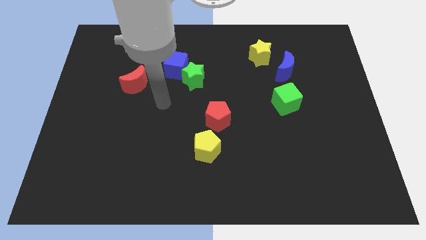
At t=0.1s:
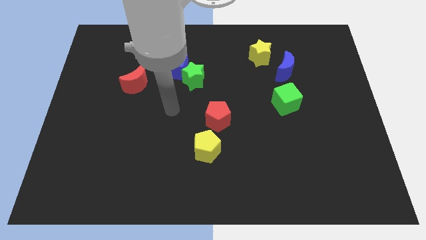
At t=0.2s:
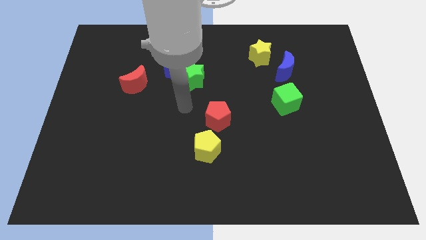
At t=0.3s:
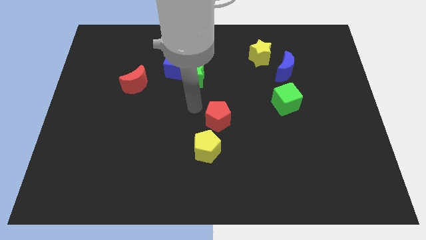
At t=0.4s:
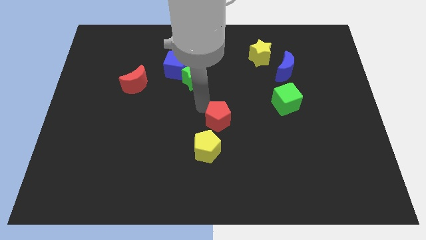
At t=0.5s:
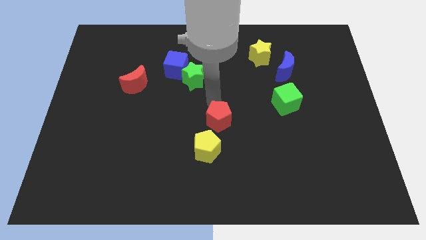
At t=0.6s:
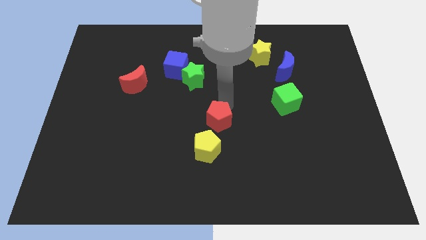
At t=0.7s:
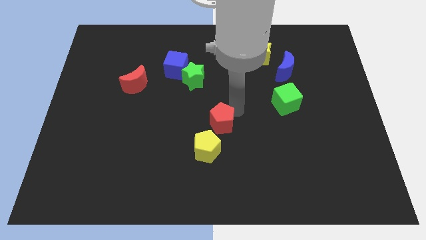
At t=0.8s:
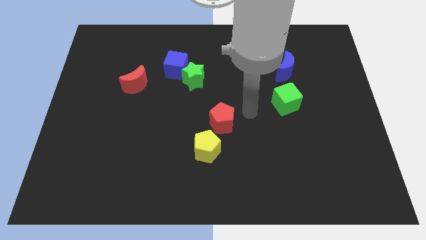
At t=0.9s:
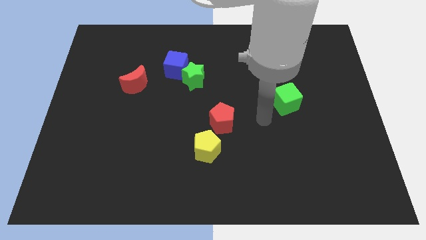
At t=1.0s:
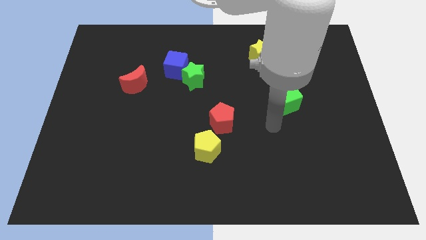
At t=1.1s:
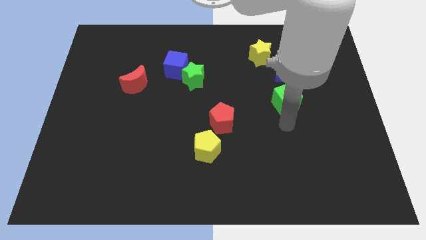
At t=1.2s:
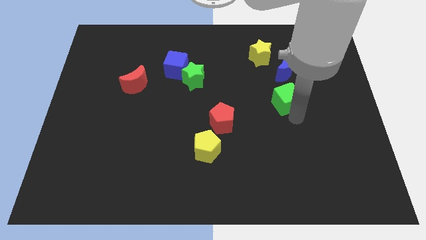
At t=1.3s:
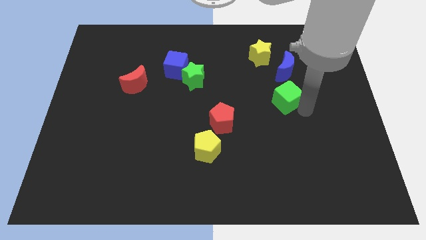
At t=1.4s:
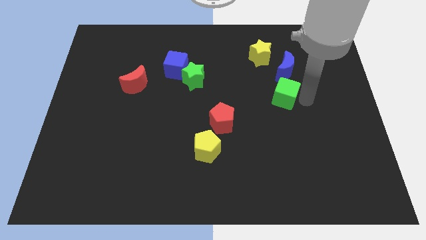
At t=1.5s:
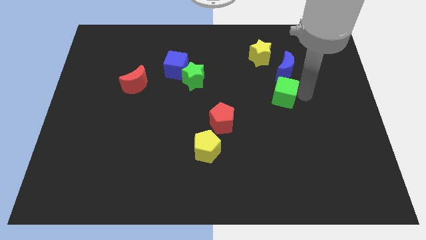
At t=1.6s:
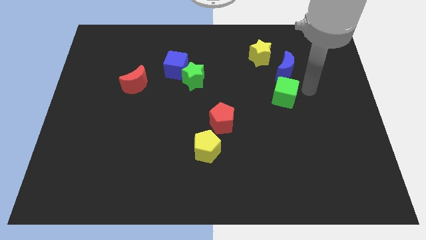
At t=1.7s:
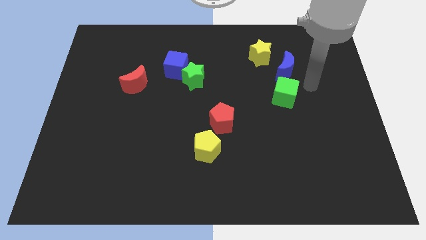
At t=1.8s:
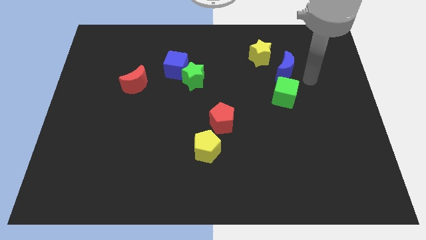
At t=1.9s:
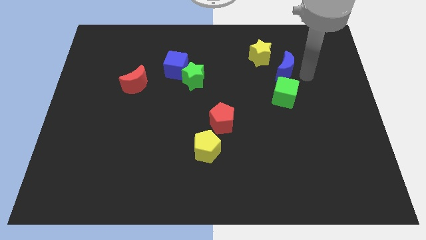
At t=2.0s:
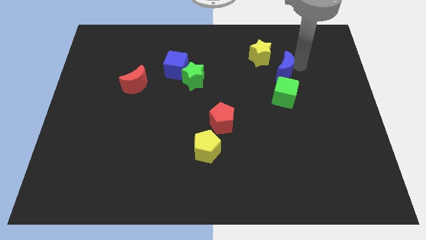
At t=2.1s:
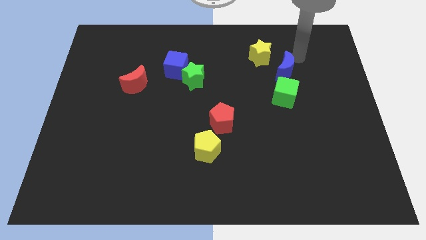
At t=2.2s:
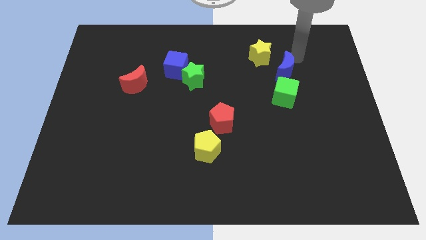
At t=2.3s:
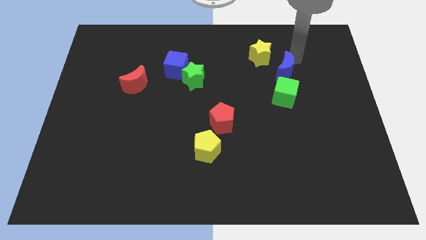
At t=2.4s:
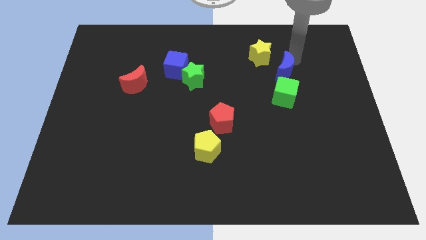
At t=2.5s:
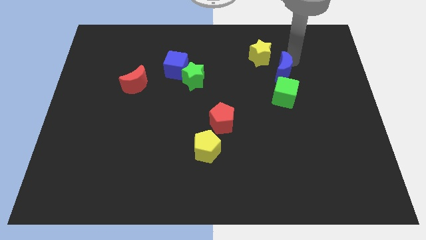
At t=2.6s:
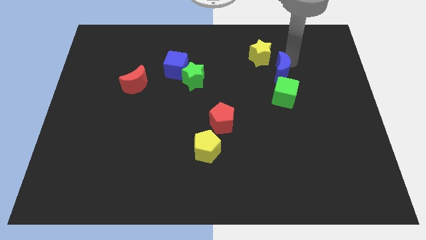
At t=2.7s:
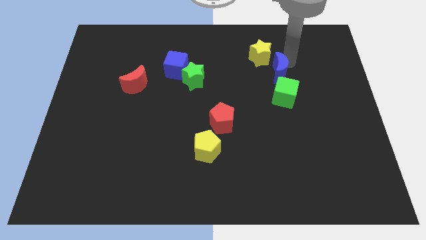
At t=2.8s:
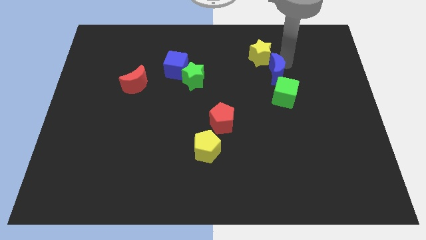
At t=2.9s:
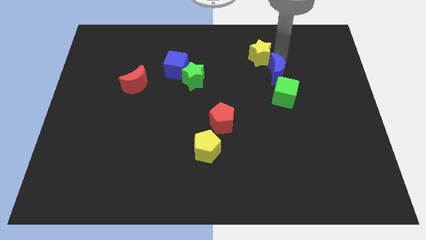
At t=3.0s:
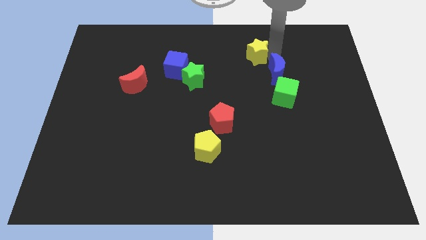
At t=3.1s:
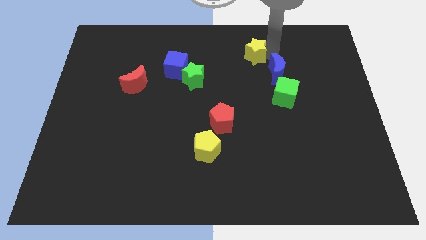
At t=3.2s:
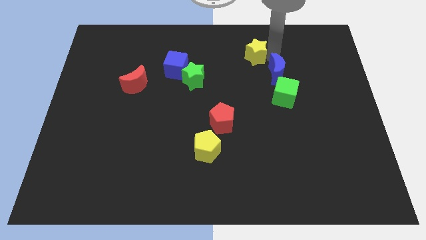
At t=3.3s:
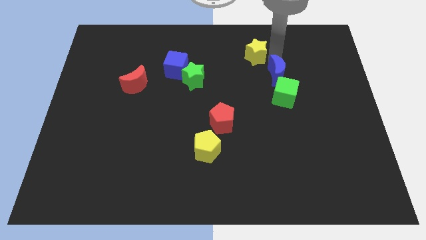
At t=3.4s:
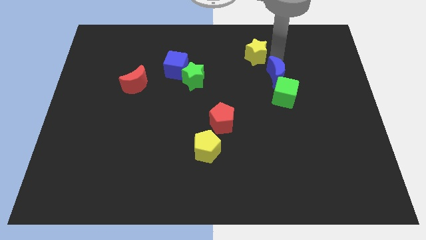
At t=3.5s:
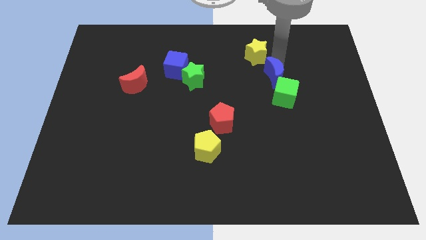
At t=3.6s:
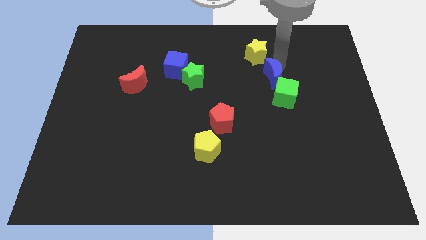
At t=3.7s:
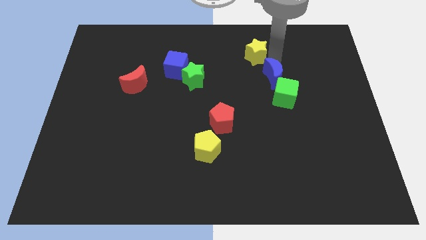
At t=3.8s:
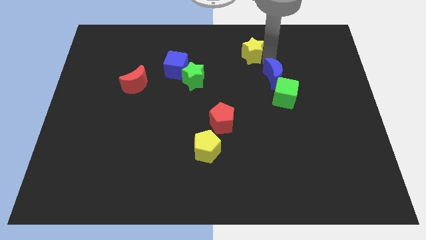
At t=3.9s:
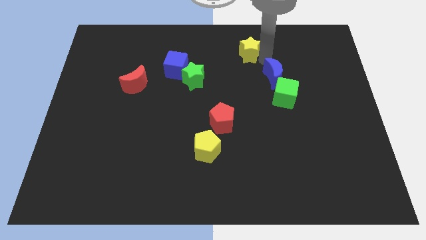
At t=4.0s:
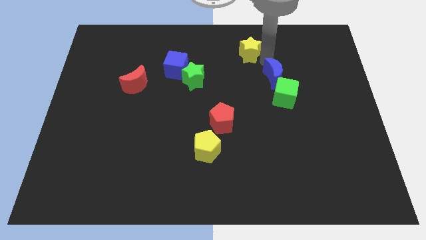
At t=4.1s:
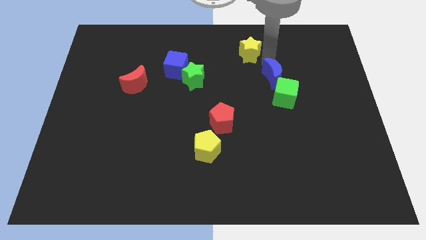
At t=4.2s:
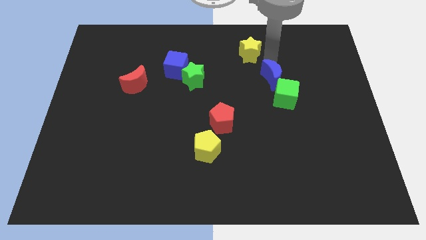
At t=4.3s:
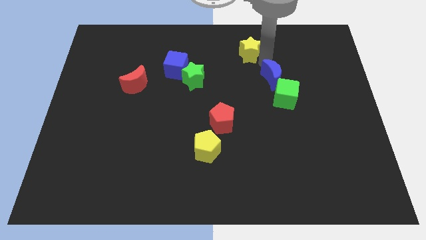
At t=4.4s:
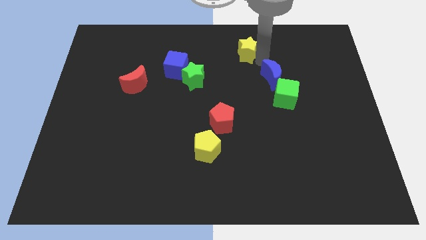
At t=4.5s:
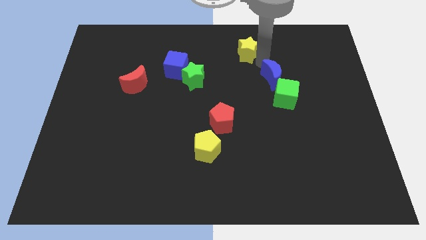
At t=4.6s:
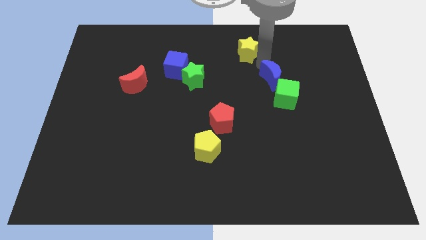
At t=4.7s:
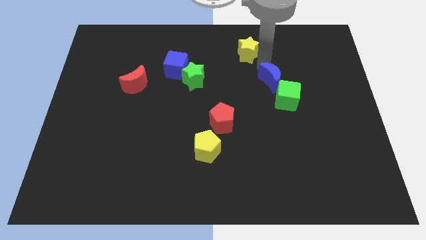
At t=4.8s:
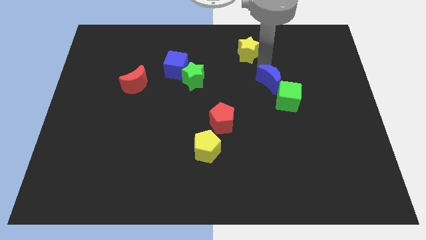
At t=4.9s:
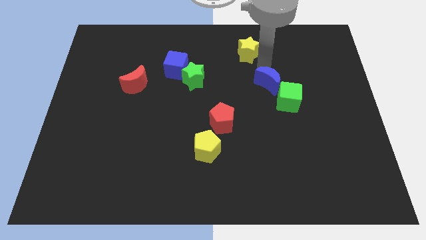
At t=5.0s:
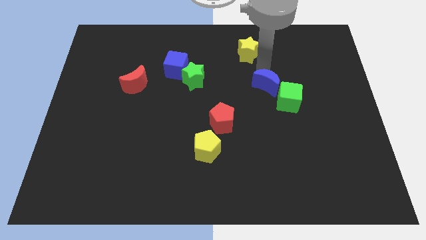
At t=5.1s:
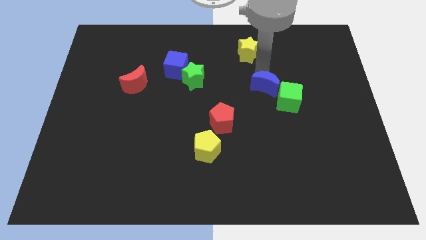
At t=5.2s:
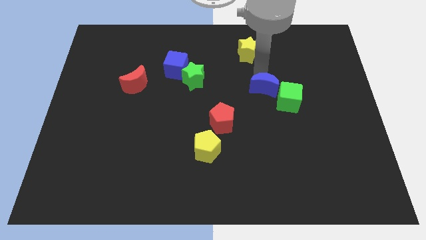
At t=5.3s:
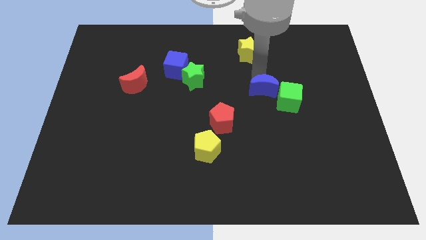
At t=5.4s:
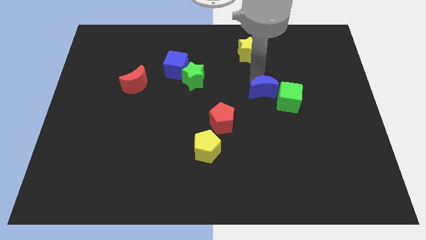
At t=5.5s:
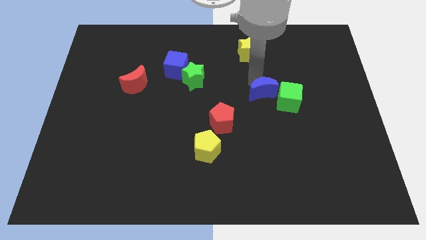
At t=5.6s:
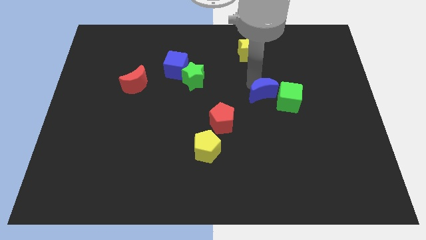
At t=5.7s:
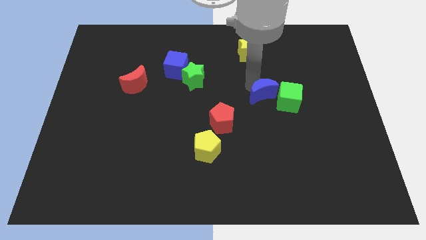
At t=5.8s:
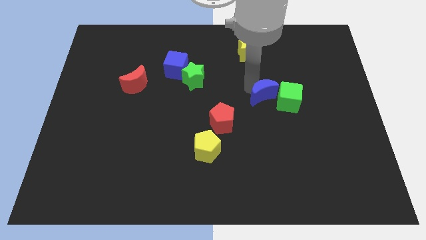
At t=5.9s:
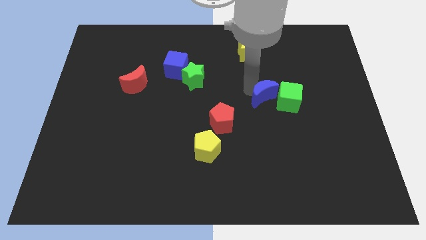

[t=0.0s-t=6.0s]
move the blue moon to the green cube

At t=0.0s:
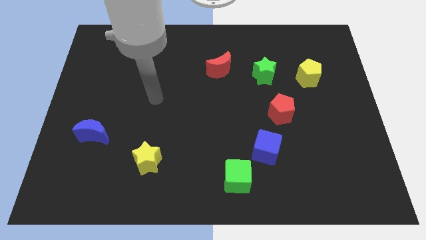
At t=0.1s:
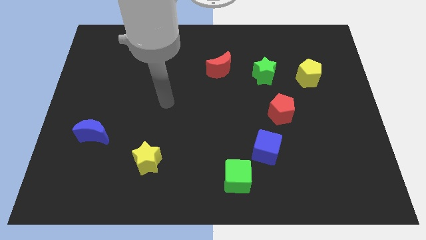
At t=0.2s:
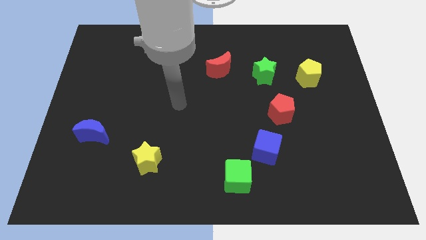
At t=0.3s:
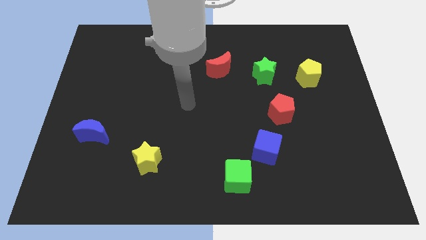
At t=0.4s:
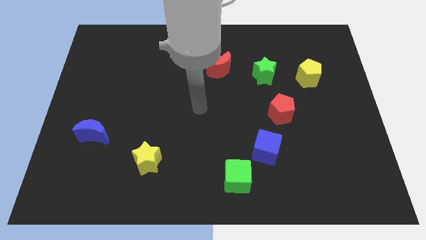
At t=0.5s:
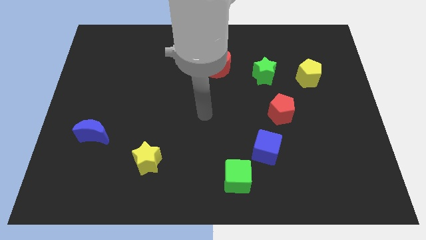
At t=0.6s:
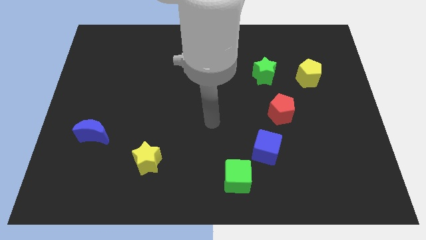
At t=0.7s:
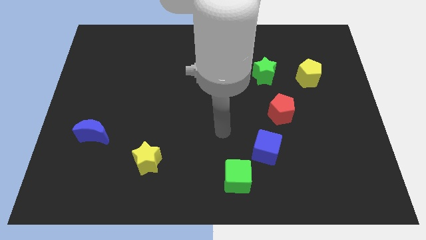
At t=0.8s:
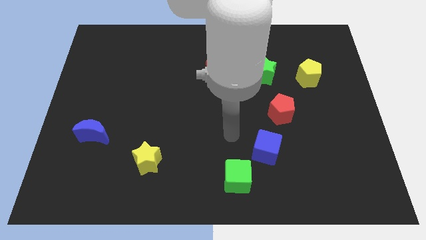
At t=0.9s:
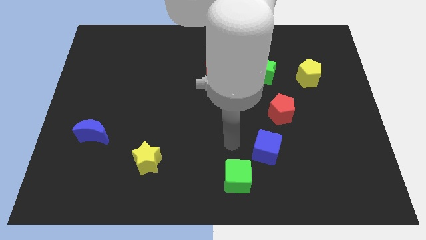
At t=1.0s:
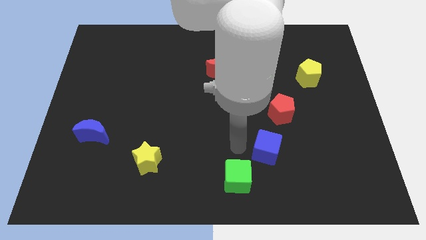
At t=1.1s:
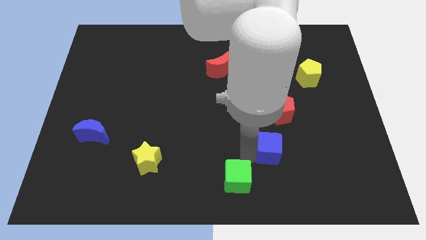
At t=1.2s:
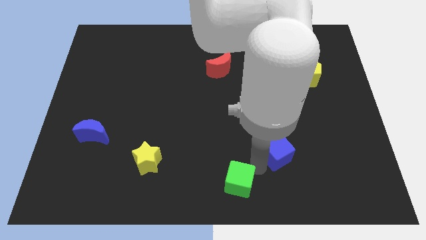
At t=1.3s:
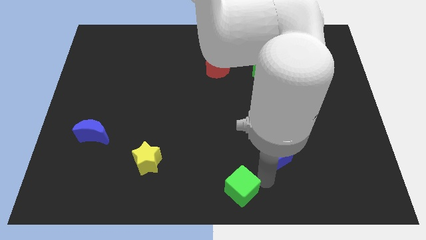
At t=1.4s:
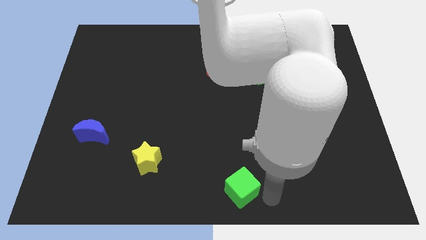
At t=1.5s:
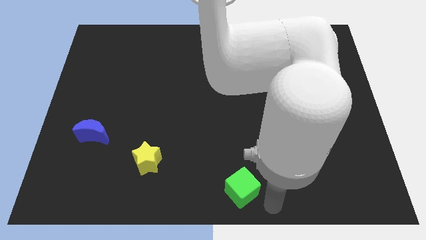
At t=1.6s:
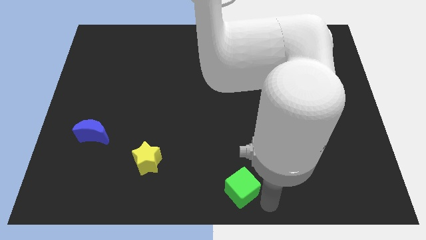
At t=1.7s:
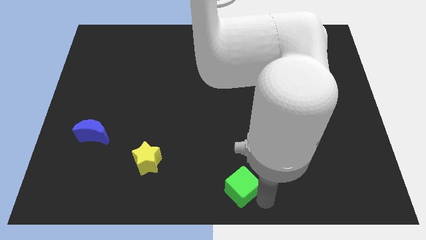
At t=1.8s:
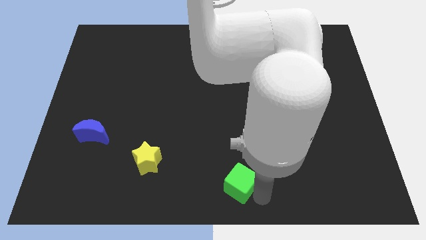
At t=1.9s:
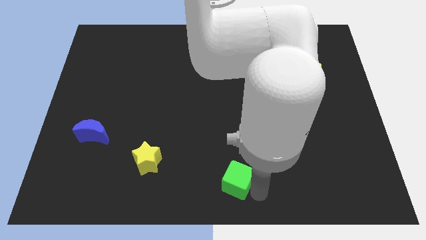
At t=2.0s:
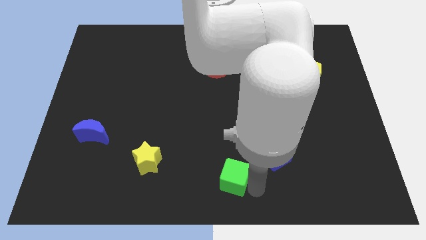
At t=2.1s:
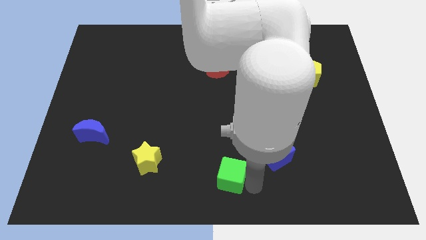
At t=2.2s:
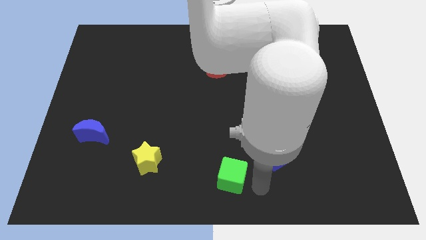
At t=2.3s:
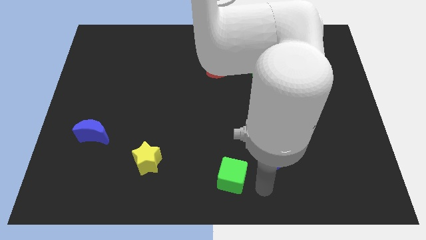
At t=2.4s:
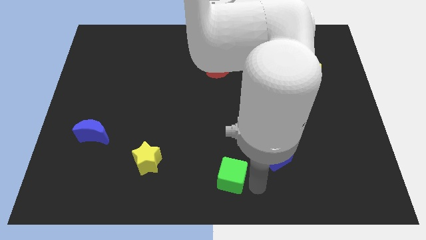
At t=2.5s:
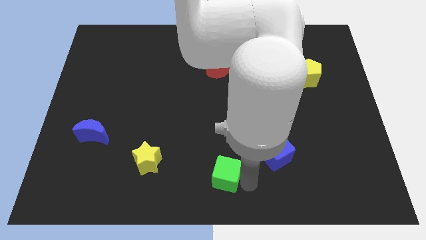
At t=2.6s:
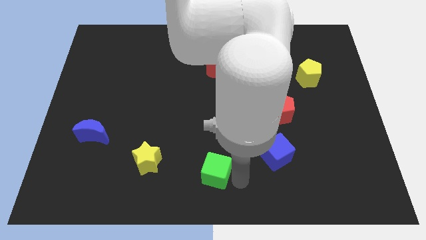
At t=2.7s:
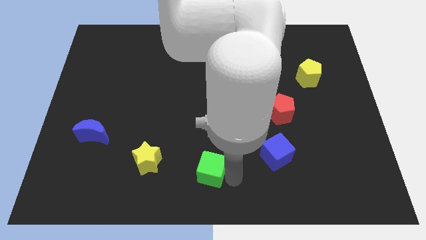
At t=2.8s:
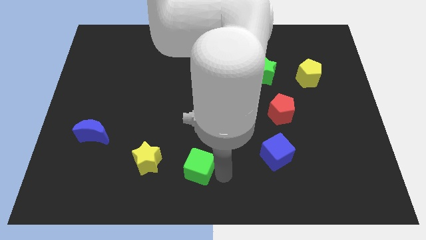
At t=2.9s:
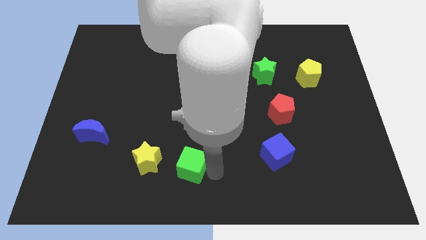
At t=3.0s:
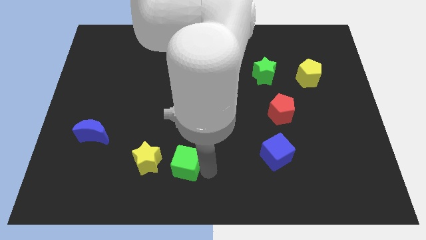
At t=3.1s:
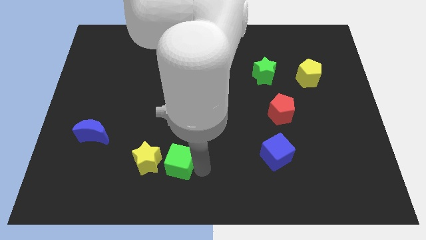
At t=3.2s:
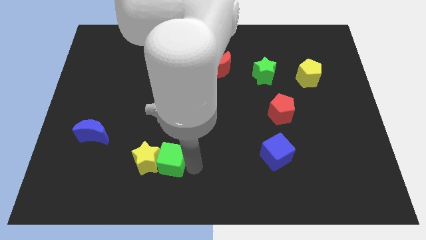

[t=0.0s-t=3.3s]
move the green cube close to the yellow star
